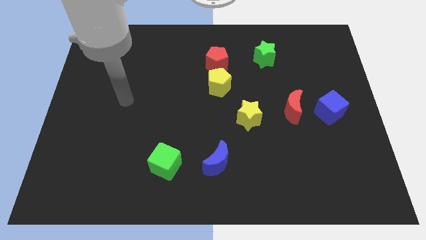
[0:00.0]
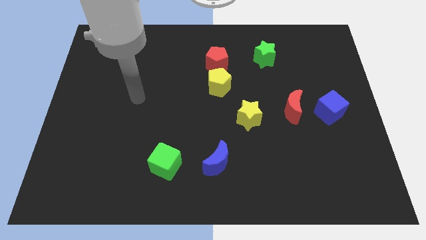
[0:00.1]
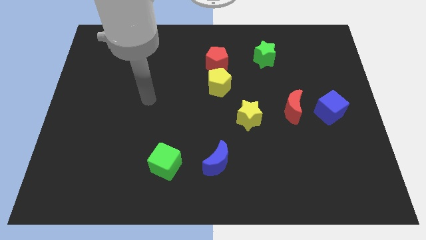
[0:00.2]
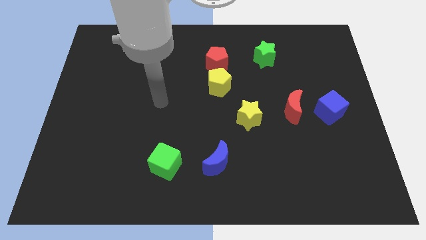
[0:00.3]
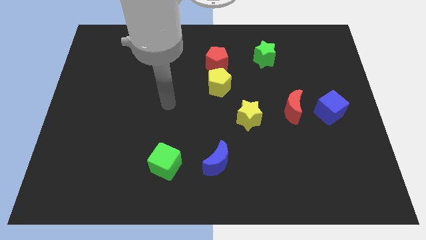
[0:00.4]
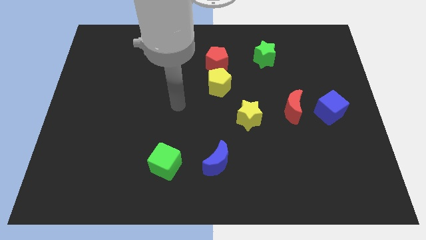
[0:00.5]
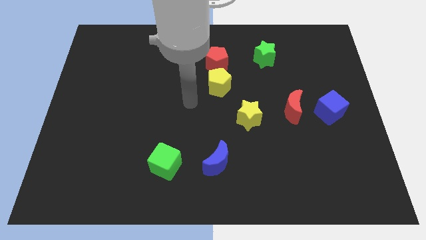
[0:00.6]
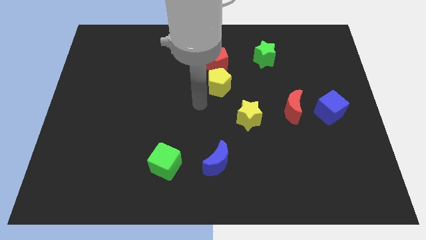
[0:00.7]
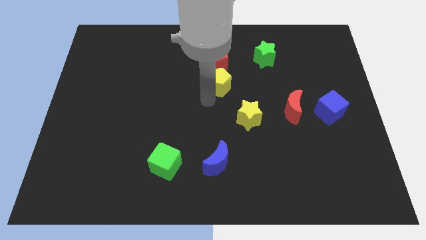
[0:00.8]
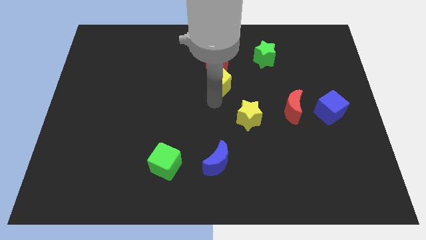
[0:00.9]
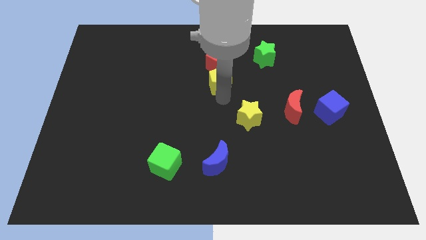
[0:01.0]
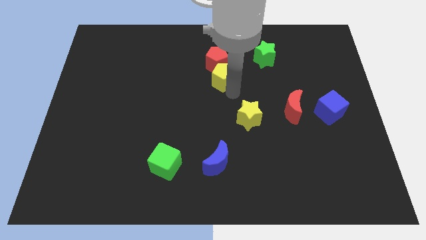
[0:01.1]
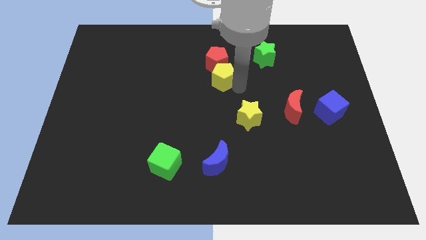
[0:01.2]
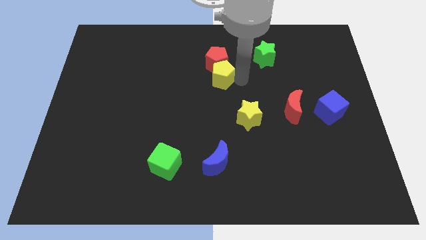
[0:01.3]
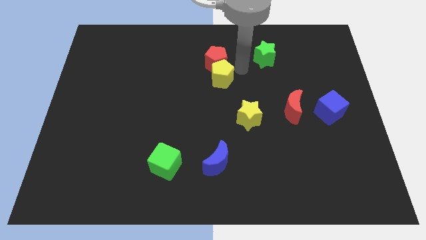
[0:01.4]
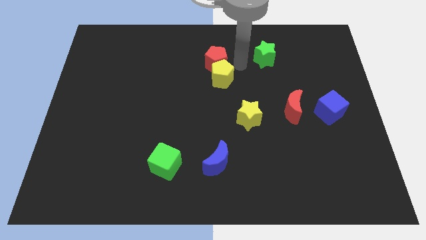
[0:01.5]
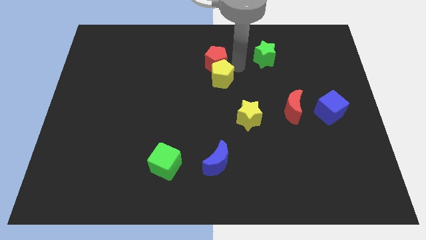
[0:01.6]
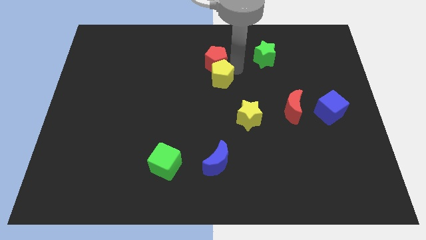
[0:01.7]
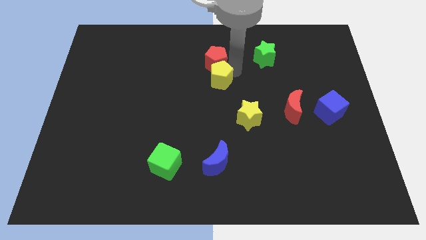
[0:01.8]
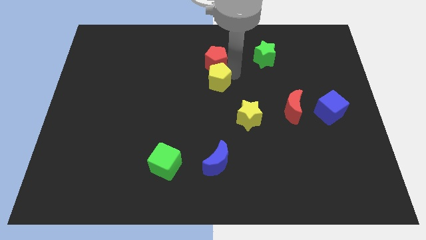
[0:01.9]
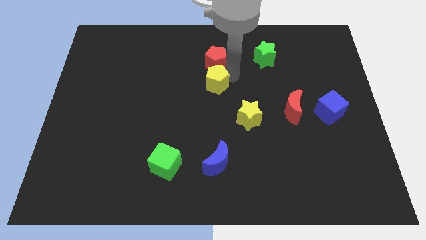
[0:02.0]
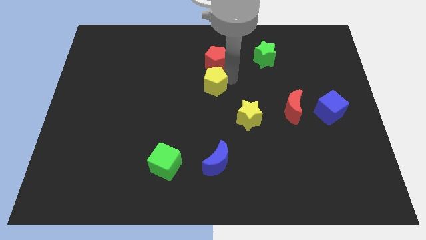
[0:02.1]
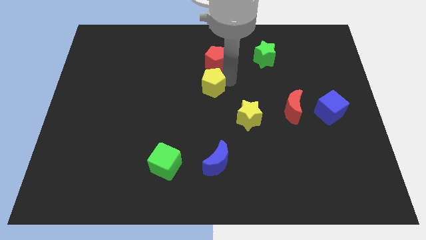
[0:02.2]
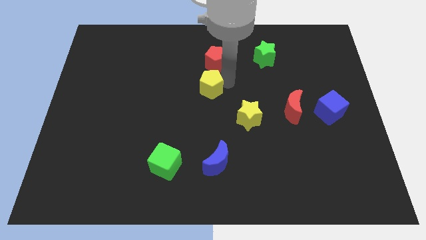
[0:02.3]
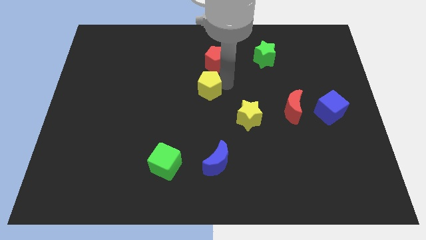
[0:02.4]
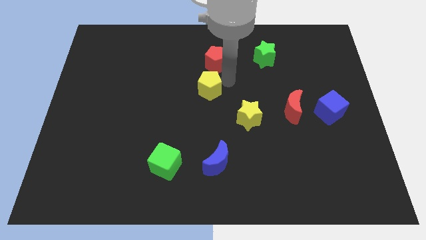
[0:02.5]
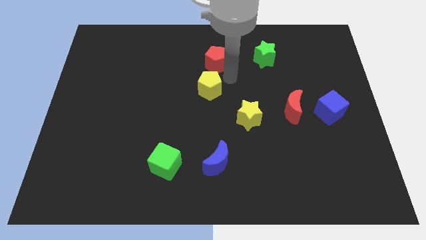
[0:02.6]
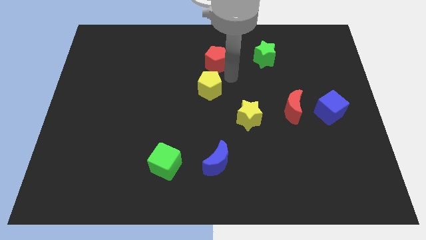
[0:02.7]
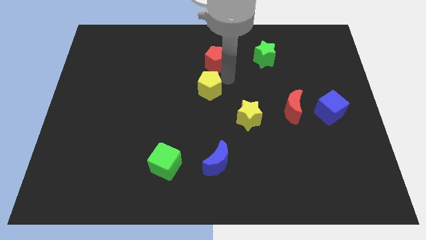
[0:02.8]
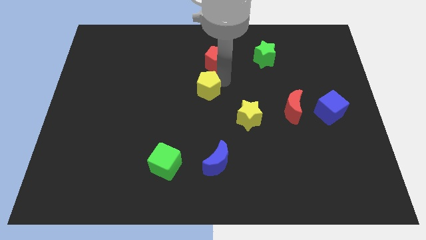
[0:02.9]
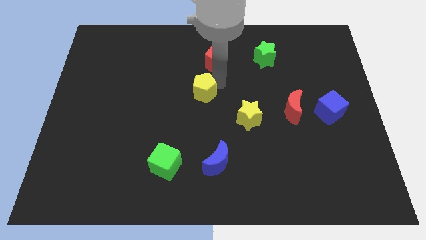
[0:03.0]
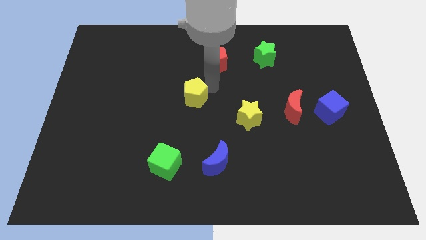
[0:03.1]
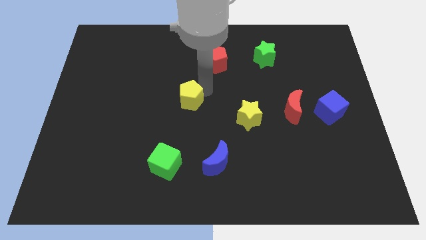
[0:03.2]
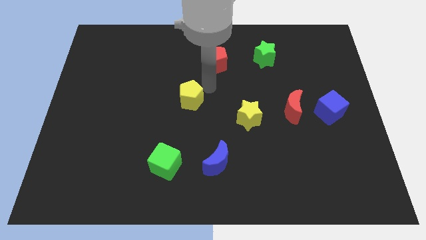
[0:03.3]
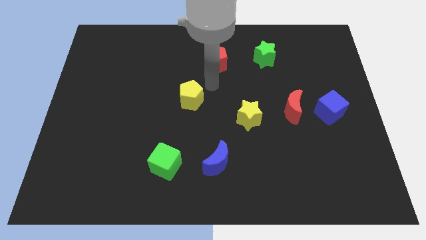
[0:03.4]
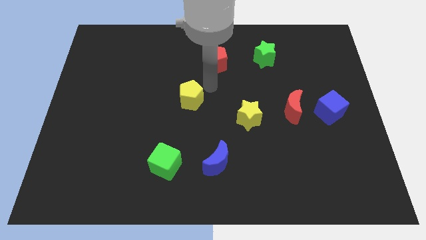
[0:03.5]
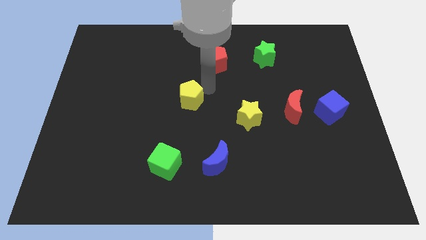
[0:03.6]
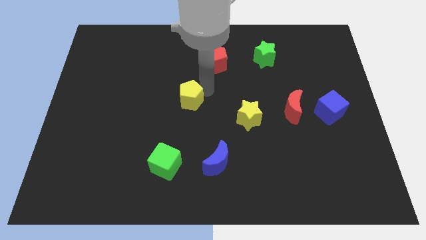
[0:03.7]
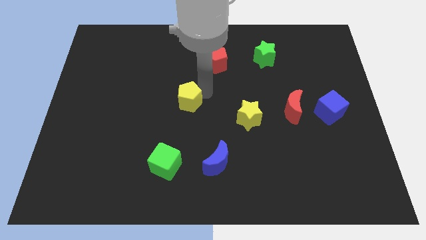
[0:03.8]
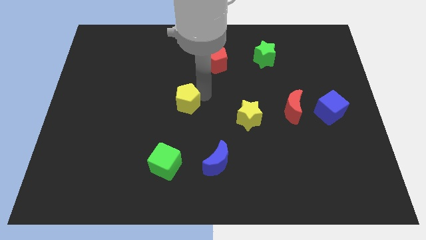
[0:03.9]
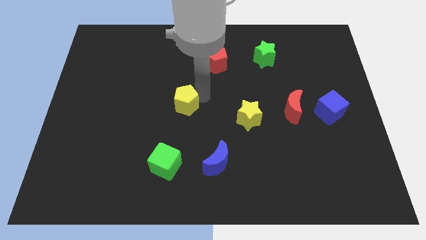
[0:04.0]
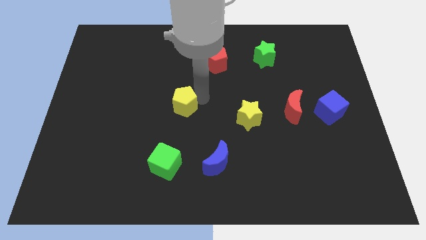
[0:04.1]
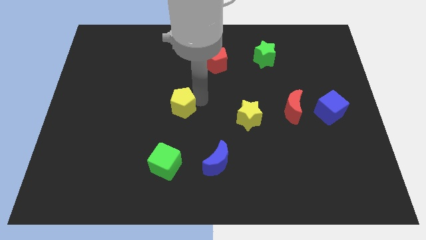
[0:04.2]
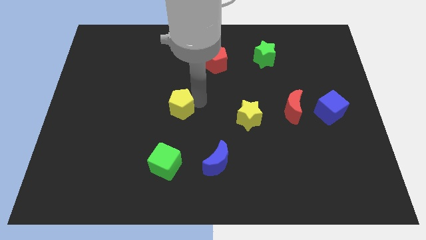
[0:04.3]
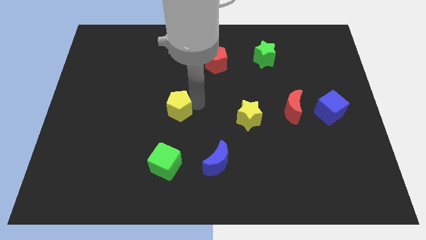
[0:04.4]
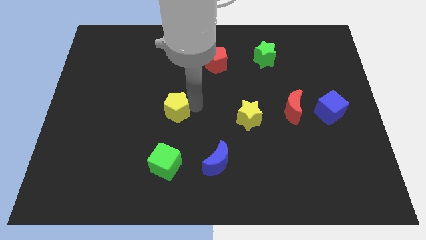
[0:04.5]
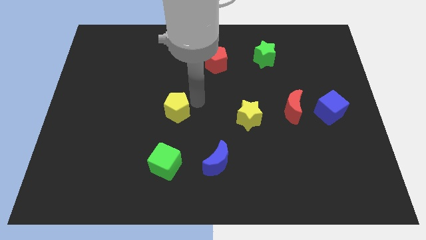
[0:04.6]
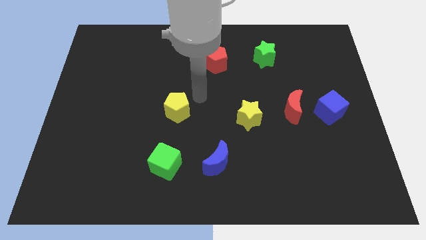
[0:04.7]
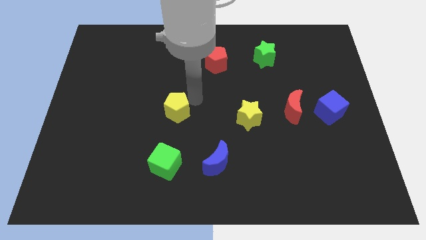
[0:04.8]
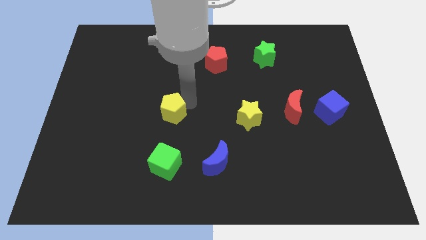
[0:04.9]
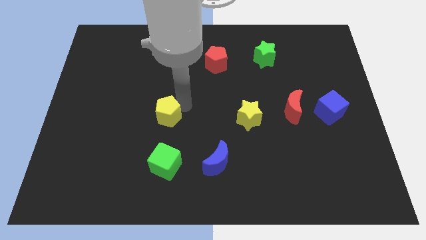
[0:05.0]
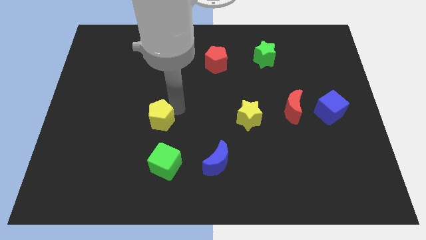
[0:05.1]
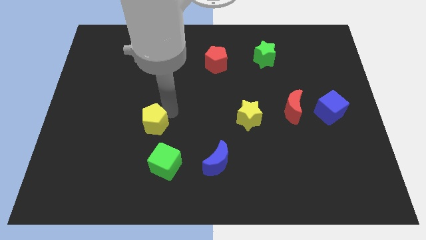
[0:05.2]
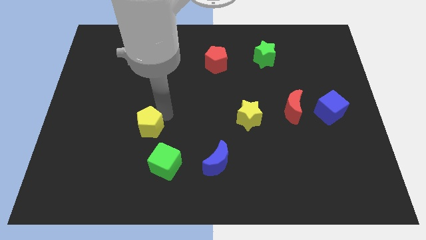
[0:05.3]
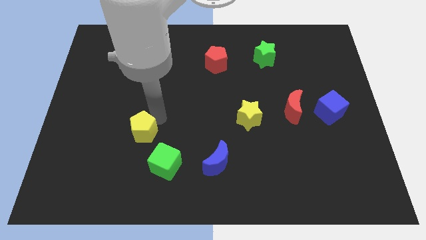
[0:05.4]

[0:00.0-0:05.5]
move the yellow pentagon diagonally downwards and to the left

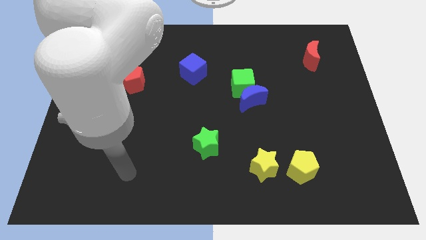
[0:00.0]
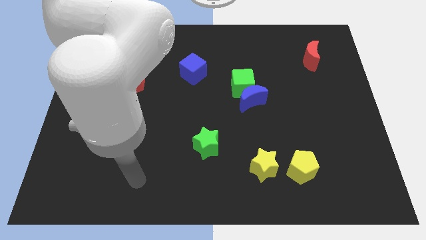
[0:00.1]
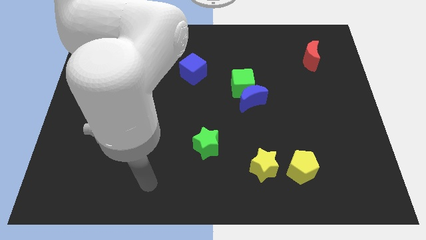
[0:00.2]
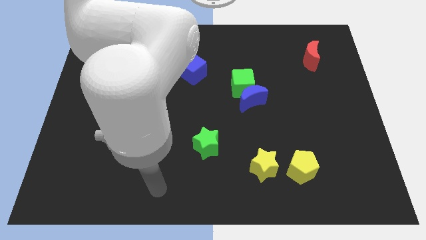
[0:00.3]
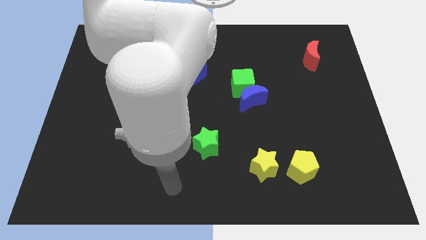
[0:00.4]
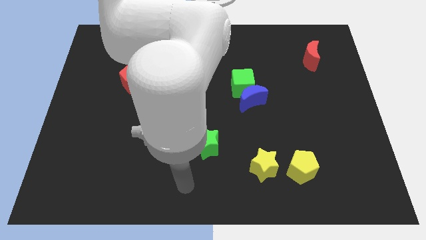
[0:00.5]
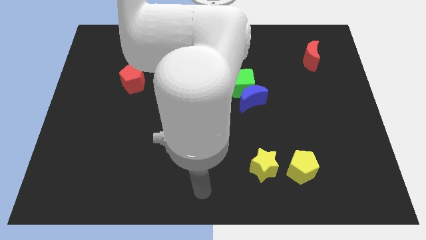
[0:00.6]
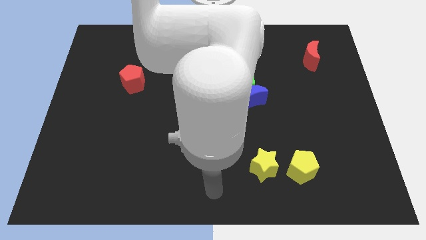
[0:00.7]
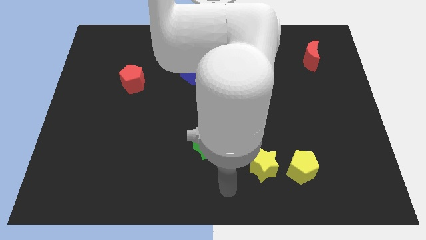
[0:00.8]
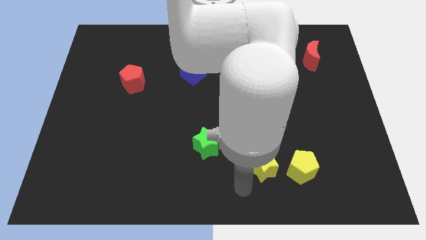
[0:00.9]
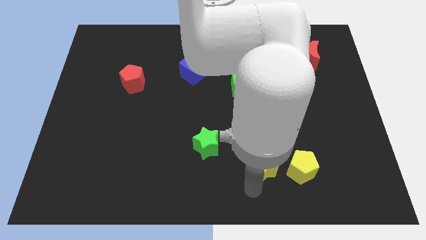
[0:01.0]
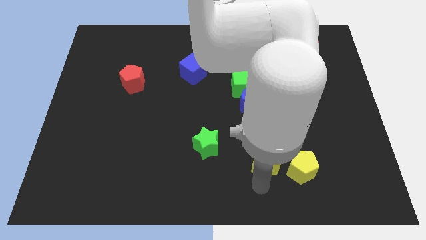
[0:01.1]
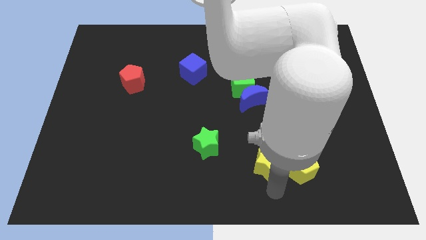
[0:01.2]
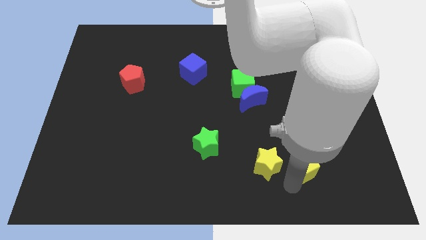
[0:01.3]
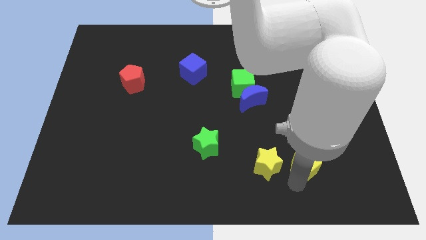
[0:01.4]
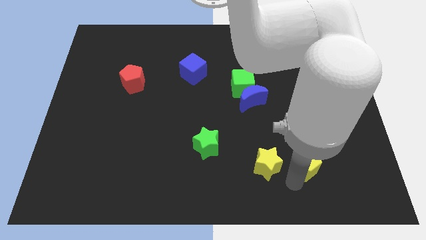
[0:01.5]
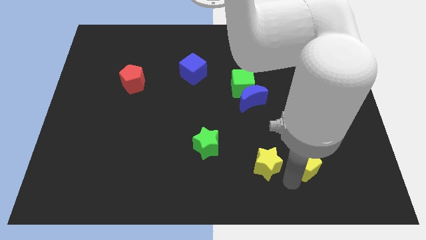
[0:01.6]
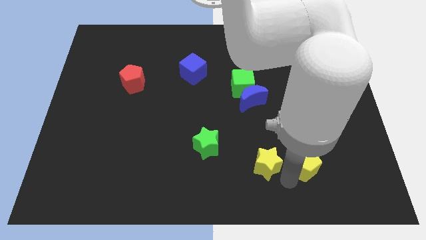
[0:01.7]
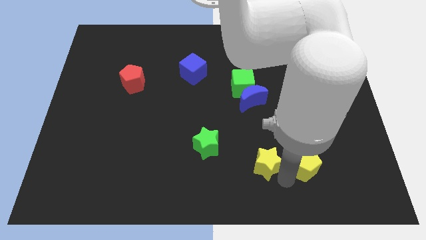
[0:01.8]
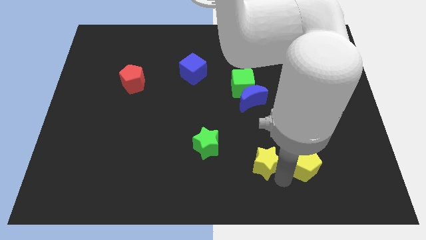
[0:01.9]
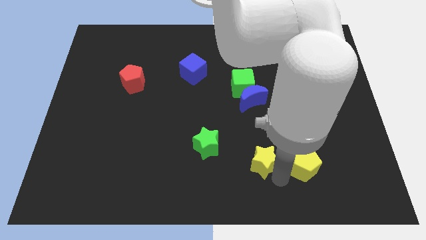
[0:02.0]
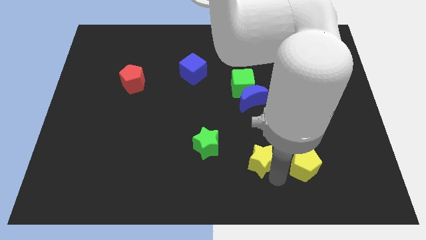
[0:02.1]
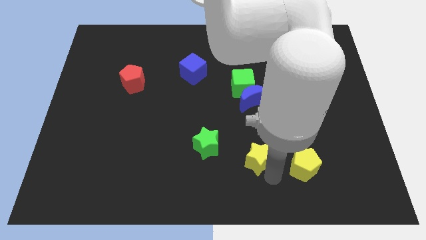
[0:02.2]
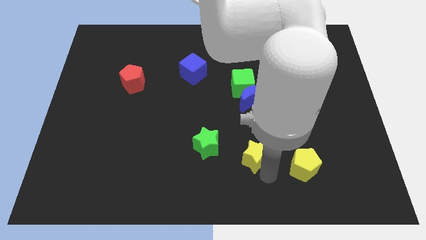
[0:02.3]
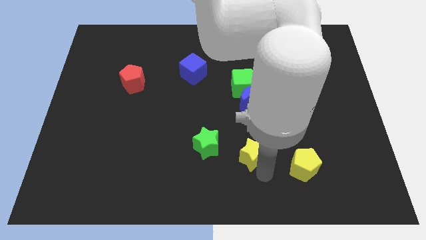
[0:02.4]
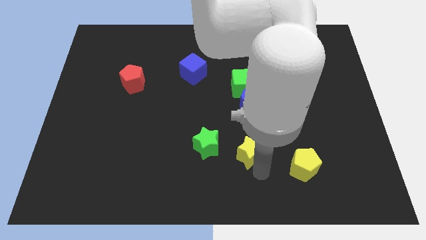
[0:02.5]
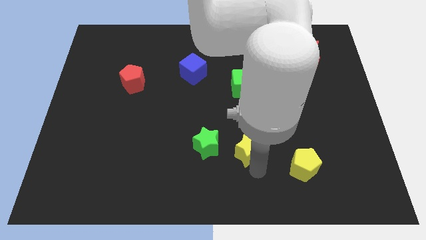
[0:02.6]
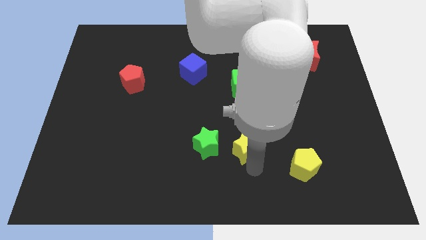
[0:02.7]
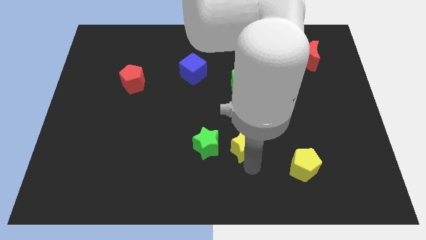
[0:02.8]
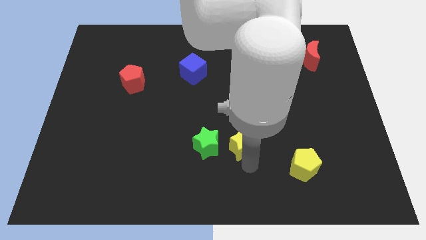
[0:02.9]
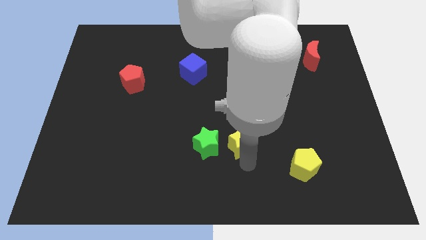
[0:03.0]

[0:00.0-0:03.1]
push the yellow star diagonally upwards and to the left somewhat
